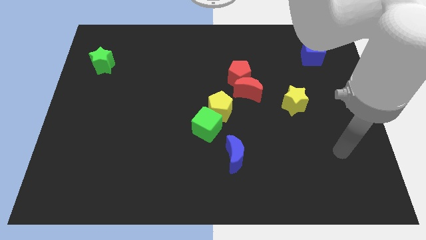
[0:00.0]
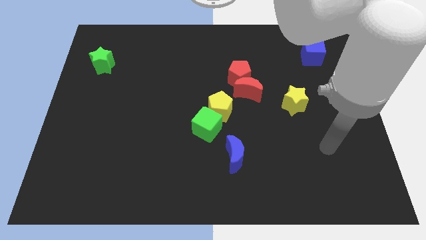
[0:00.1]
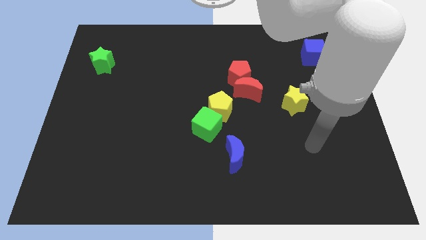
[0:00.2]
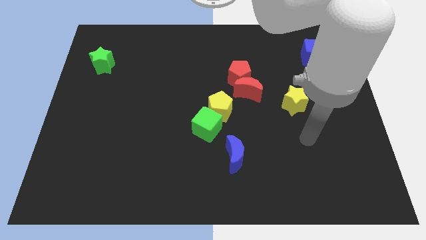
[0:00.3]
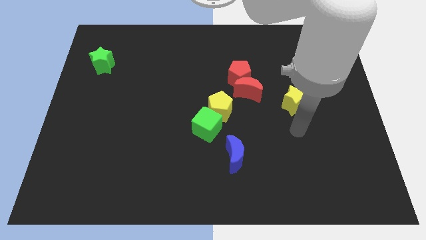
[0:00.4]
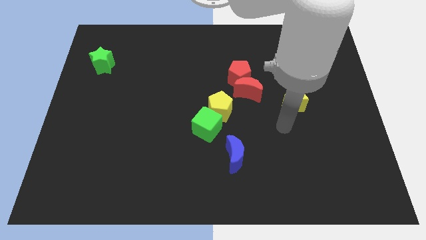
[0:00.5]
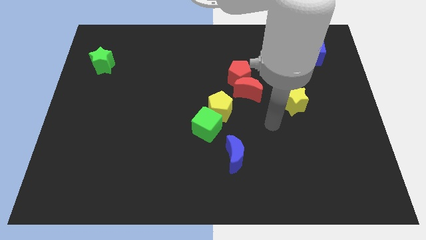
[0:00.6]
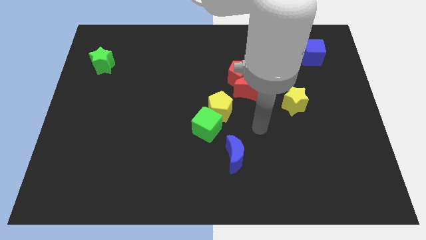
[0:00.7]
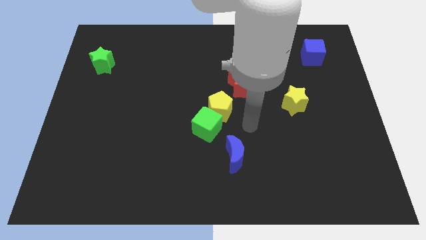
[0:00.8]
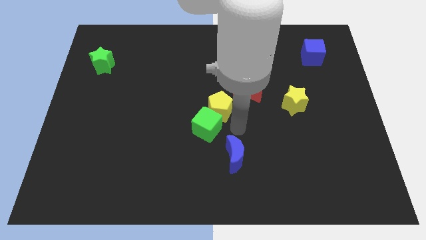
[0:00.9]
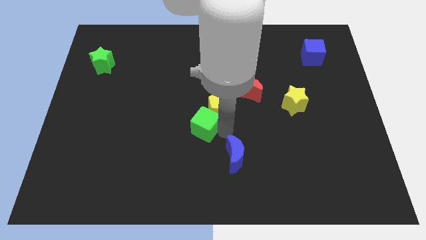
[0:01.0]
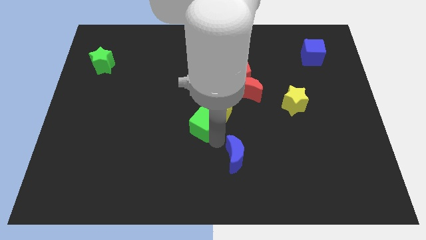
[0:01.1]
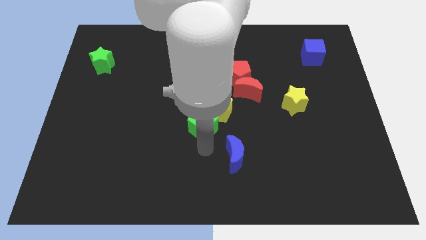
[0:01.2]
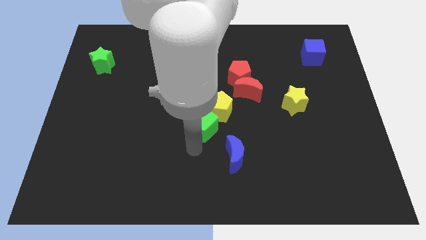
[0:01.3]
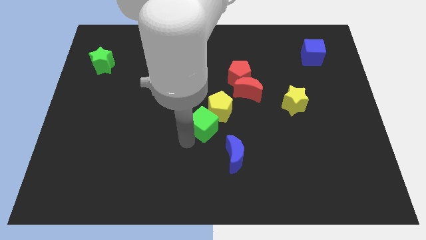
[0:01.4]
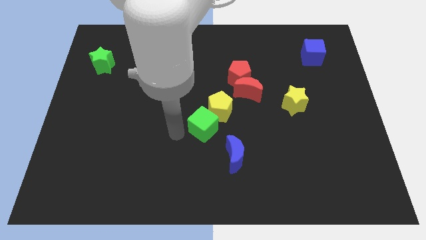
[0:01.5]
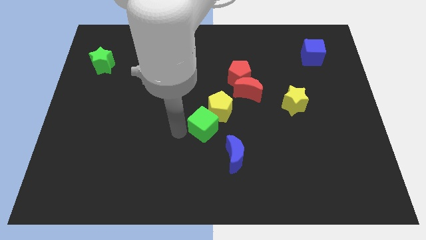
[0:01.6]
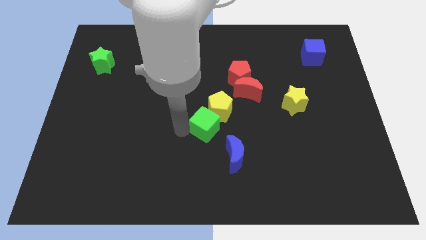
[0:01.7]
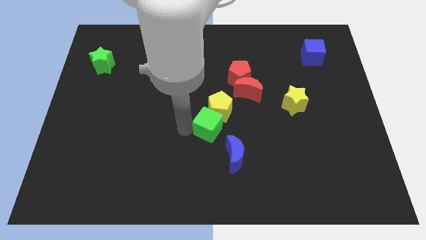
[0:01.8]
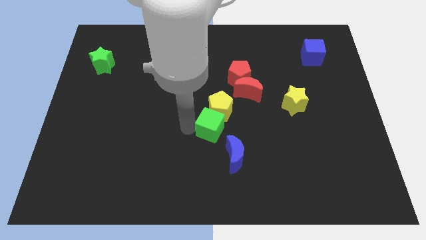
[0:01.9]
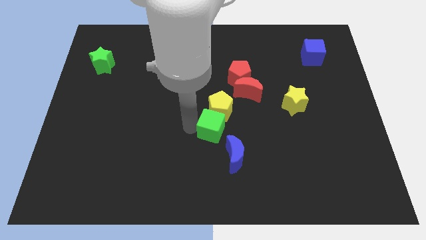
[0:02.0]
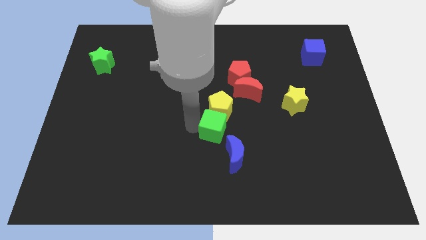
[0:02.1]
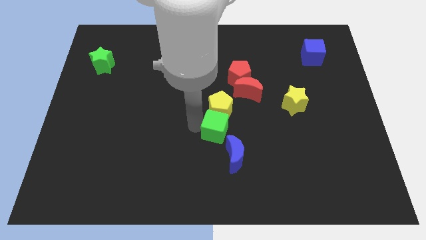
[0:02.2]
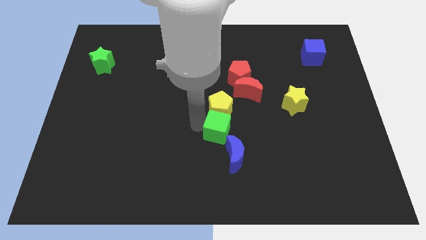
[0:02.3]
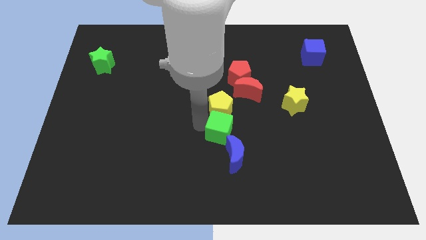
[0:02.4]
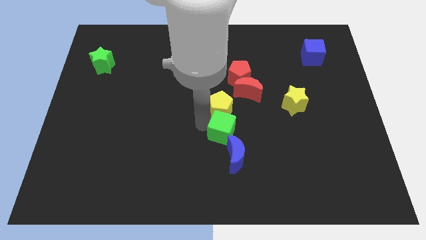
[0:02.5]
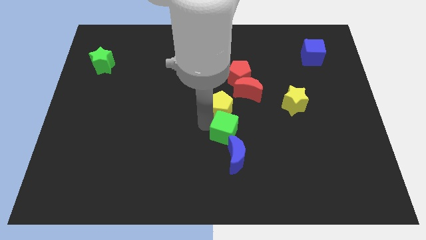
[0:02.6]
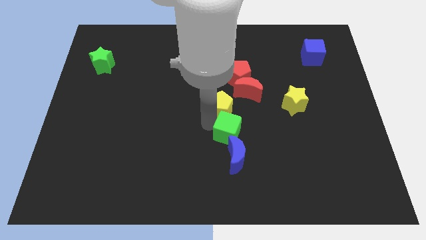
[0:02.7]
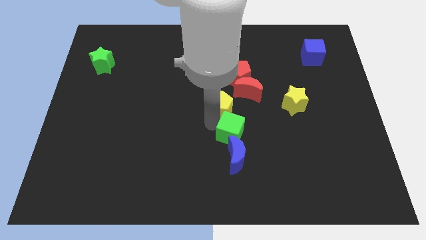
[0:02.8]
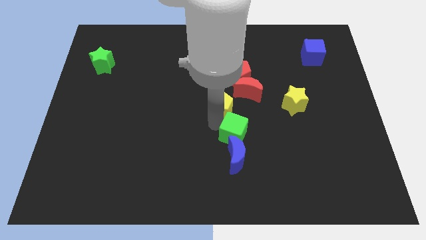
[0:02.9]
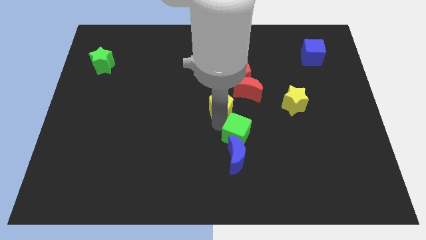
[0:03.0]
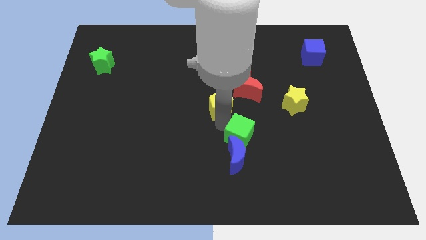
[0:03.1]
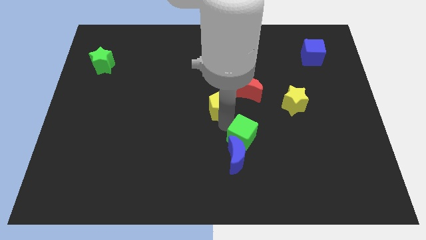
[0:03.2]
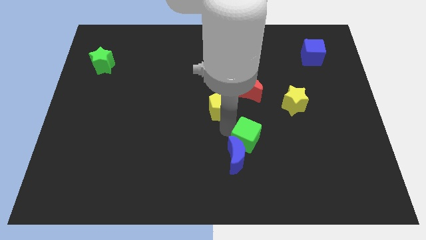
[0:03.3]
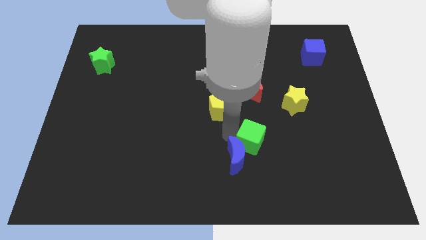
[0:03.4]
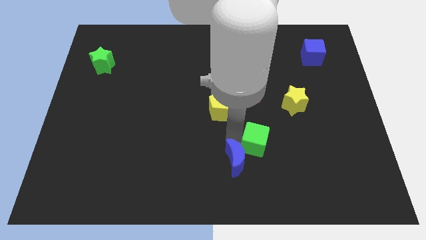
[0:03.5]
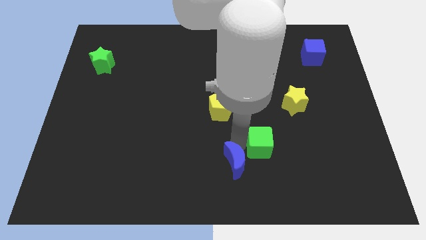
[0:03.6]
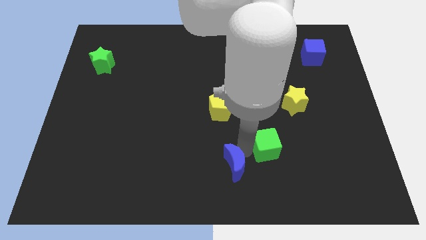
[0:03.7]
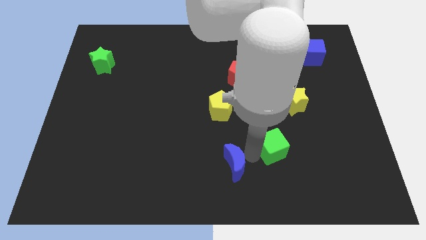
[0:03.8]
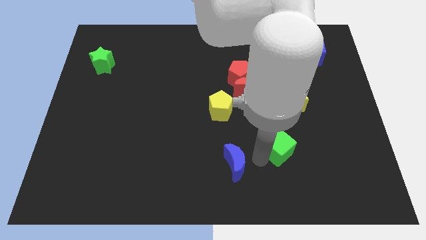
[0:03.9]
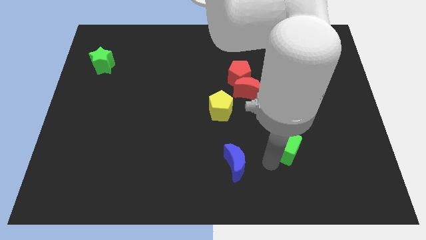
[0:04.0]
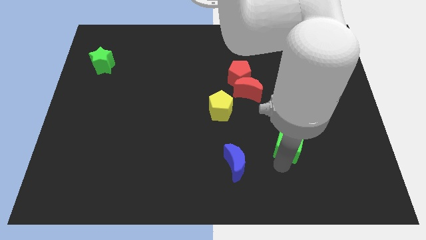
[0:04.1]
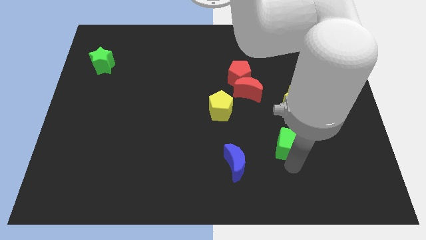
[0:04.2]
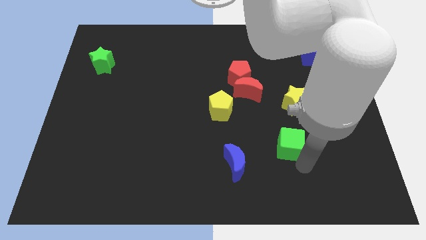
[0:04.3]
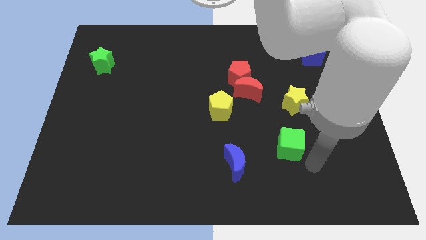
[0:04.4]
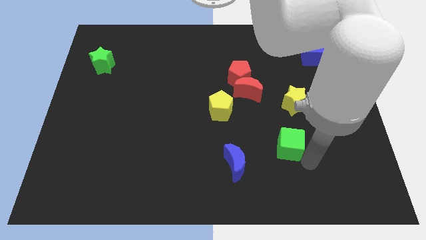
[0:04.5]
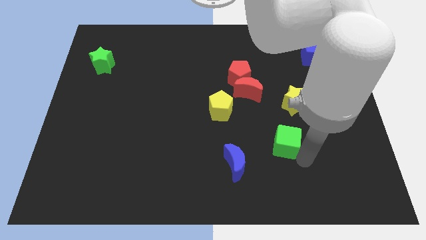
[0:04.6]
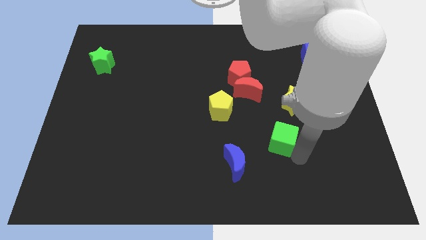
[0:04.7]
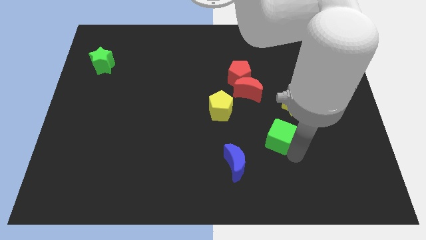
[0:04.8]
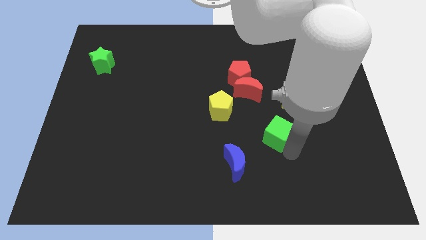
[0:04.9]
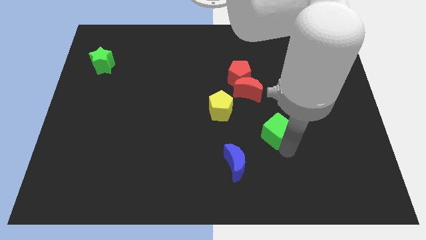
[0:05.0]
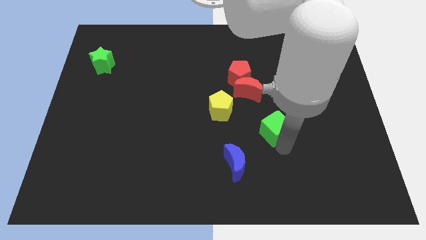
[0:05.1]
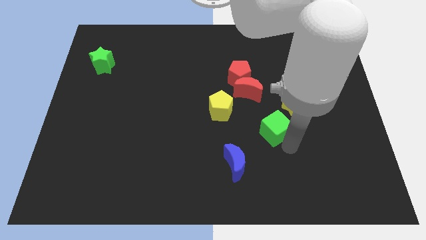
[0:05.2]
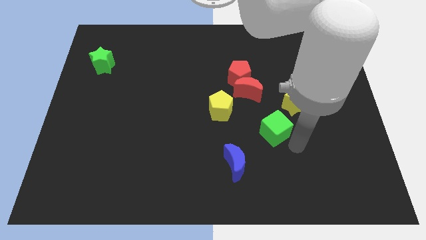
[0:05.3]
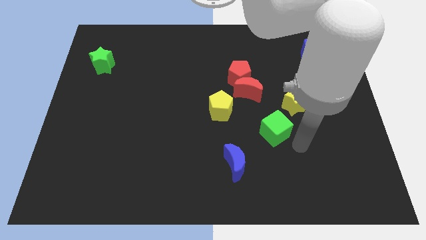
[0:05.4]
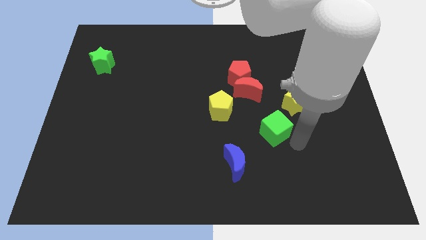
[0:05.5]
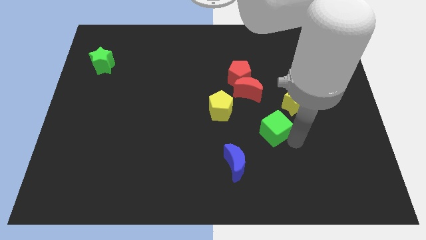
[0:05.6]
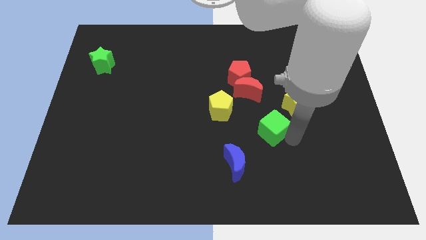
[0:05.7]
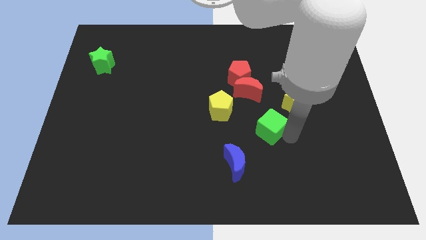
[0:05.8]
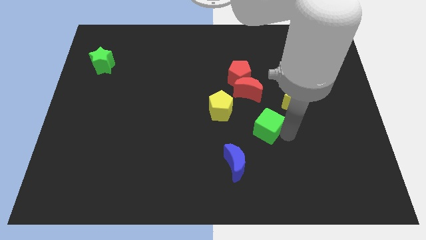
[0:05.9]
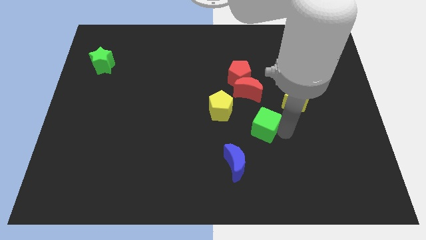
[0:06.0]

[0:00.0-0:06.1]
push the green cube to the right of the yellow pentagon

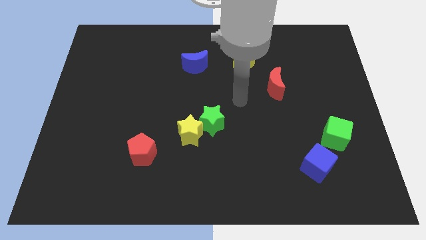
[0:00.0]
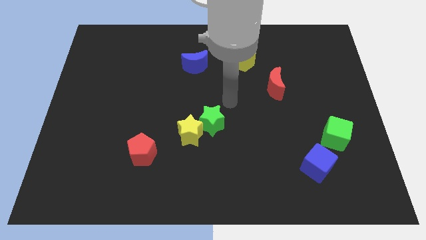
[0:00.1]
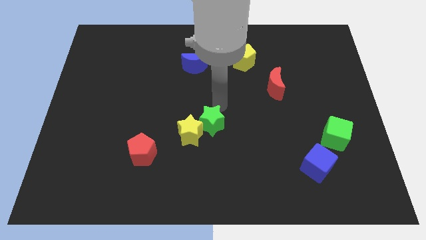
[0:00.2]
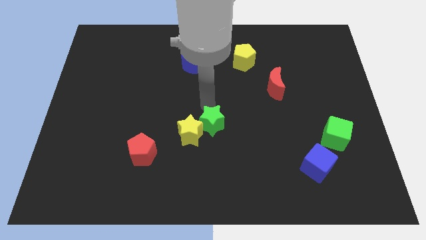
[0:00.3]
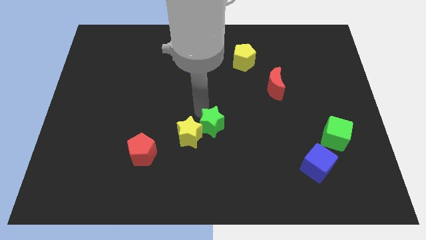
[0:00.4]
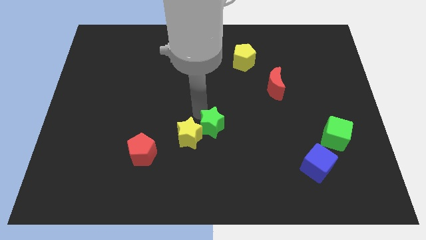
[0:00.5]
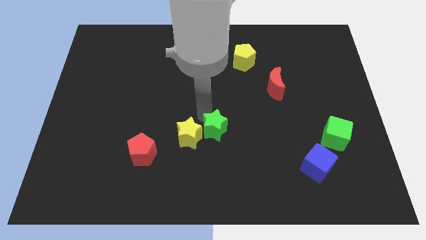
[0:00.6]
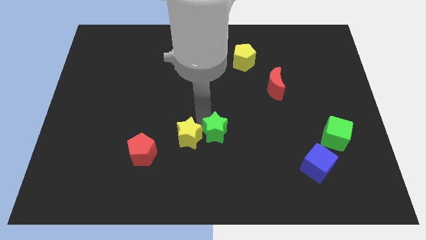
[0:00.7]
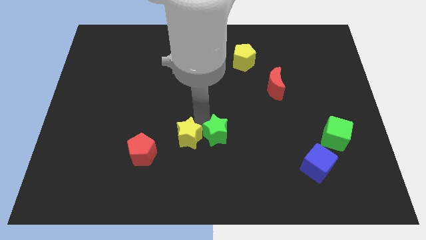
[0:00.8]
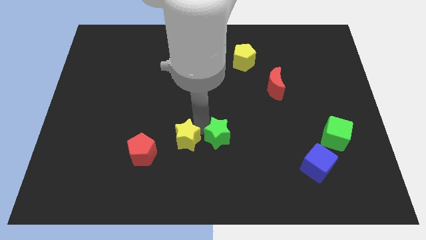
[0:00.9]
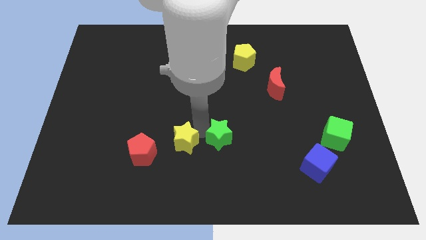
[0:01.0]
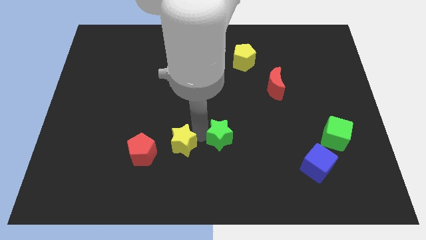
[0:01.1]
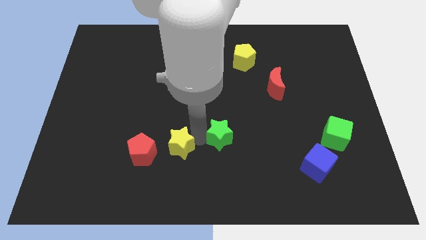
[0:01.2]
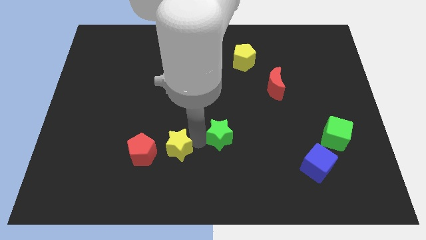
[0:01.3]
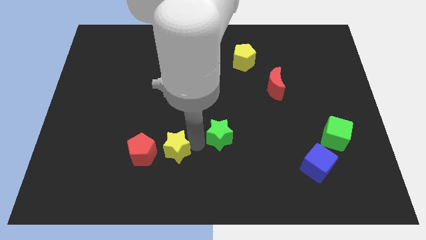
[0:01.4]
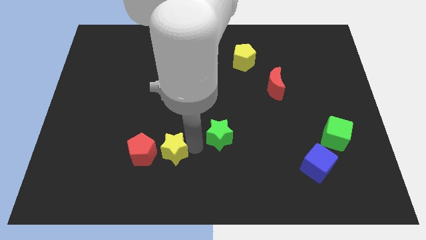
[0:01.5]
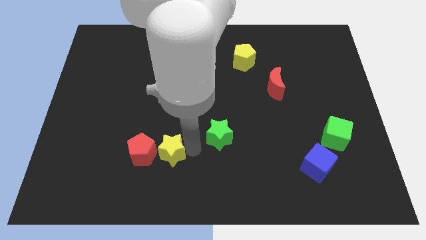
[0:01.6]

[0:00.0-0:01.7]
move the yellow star to the bottom right side of the red pentagon
